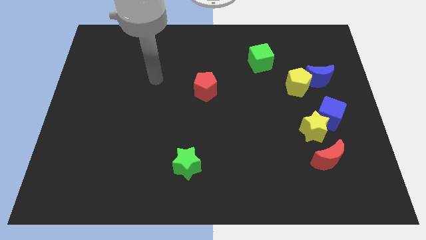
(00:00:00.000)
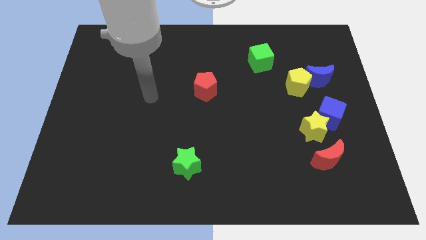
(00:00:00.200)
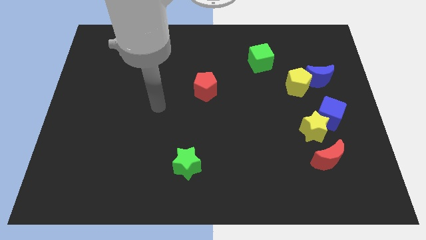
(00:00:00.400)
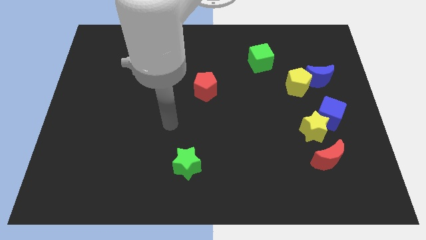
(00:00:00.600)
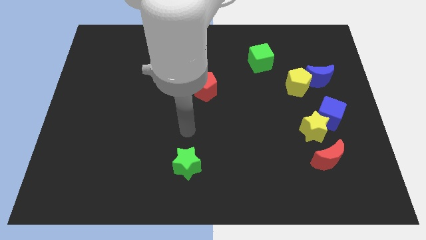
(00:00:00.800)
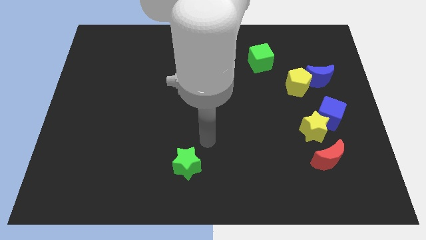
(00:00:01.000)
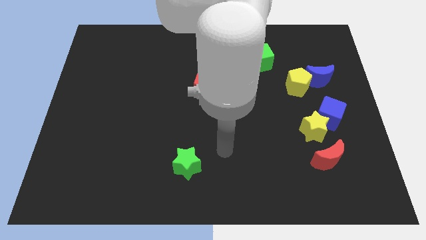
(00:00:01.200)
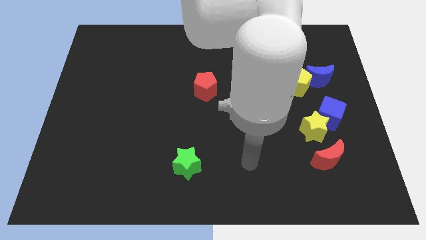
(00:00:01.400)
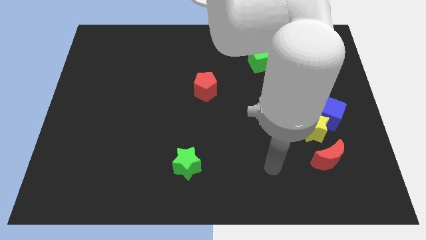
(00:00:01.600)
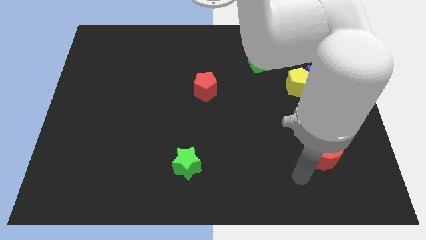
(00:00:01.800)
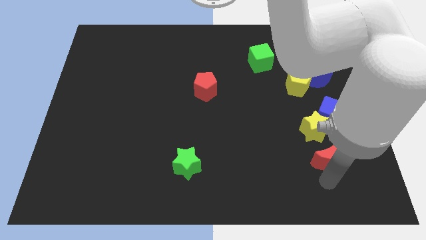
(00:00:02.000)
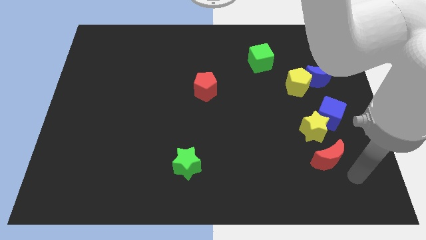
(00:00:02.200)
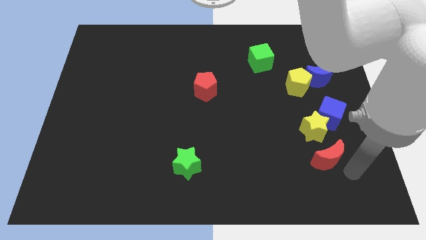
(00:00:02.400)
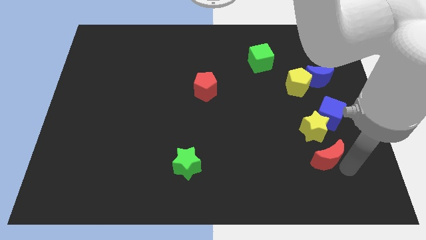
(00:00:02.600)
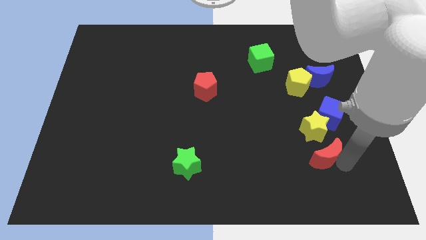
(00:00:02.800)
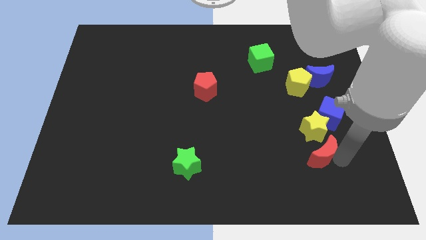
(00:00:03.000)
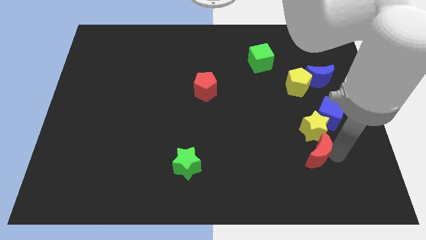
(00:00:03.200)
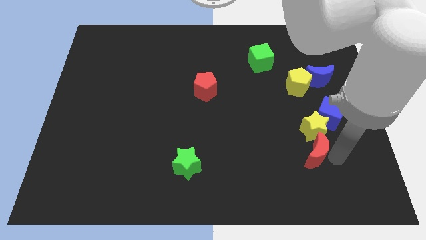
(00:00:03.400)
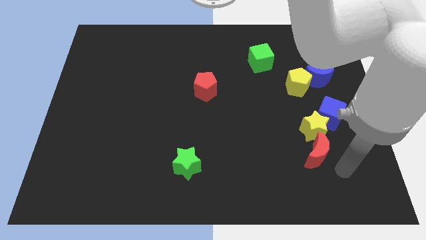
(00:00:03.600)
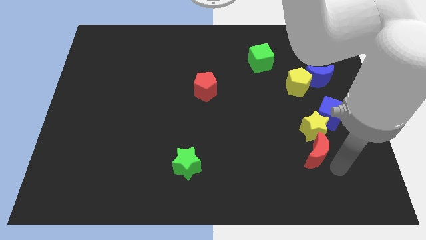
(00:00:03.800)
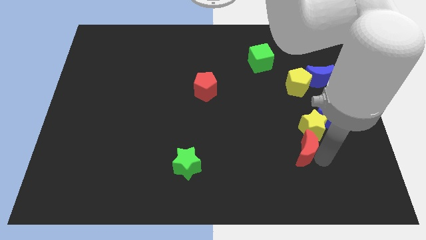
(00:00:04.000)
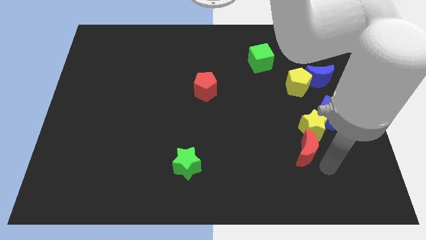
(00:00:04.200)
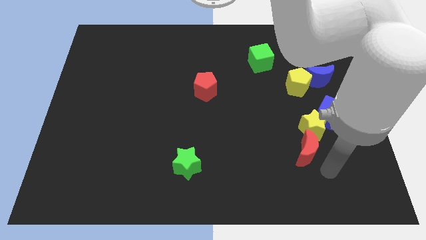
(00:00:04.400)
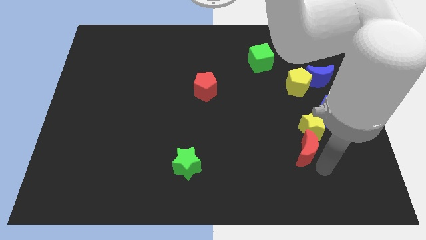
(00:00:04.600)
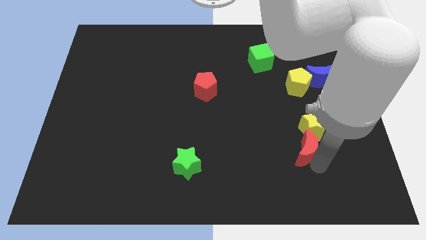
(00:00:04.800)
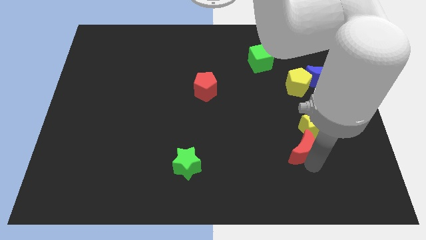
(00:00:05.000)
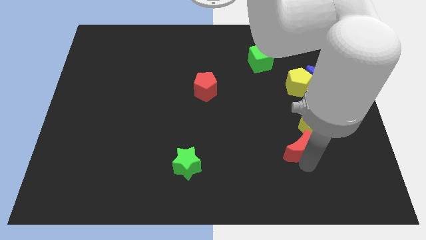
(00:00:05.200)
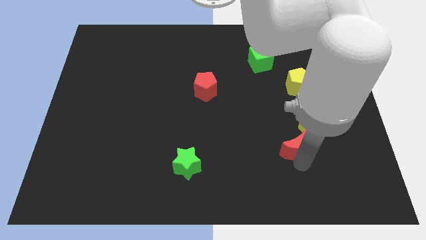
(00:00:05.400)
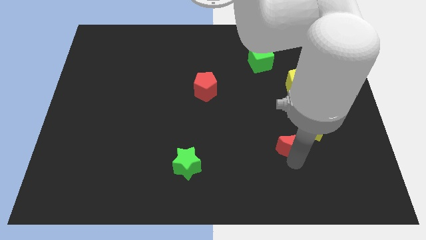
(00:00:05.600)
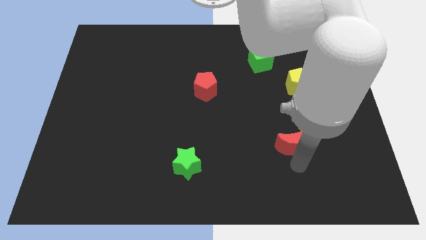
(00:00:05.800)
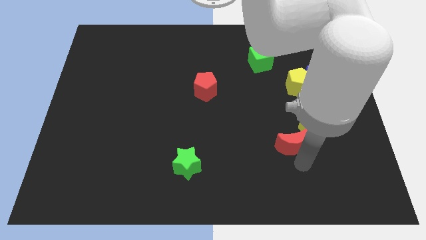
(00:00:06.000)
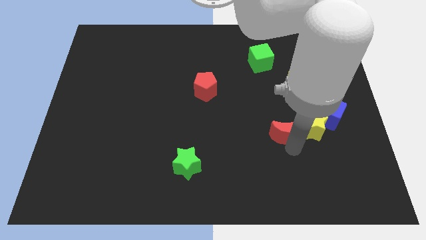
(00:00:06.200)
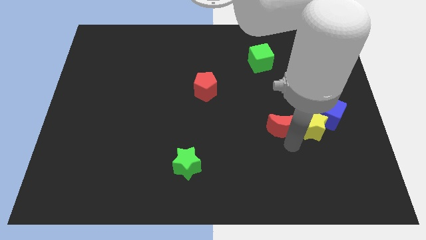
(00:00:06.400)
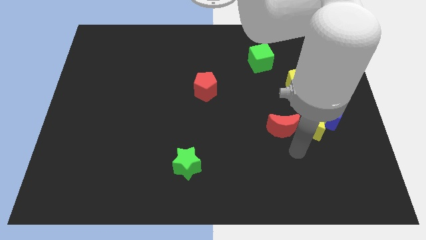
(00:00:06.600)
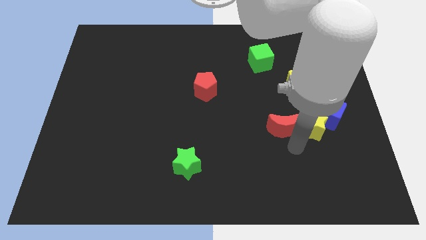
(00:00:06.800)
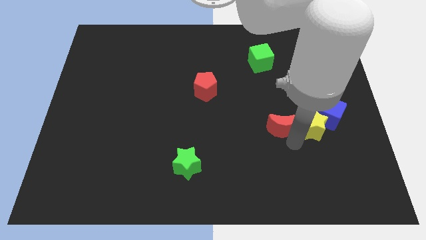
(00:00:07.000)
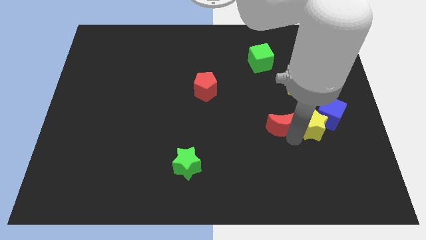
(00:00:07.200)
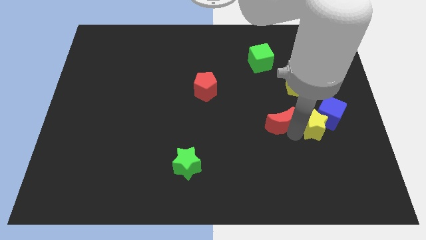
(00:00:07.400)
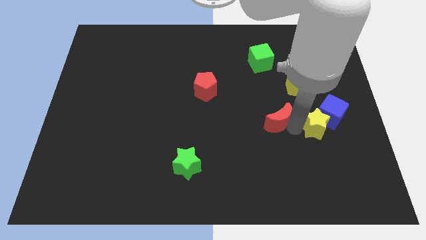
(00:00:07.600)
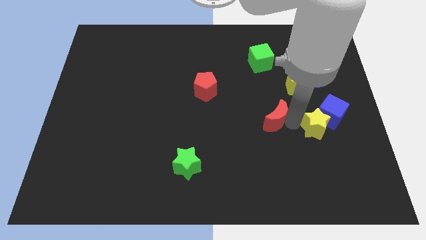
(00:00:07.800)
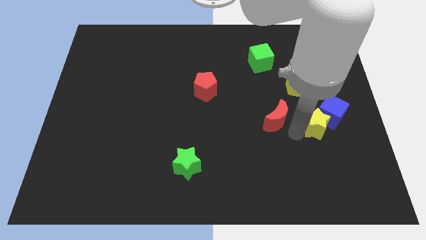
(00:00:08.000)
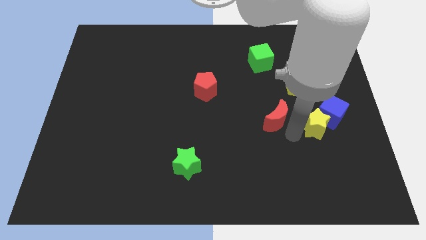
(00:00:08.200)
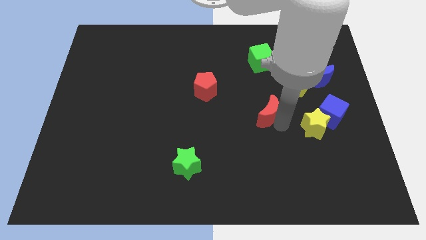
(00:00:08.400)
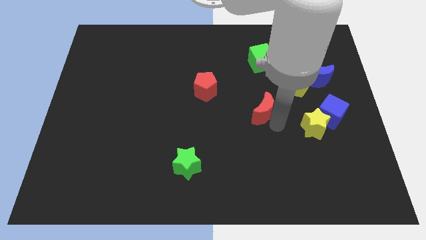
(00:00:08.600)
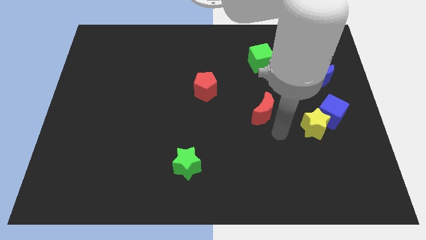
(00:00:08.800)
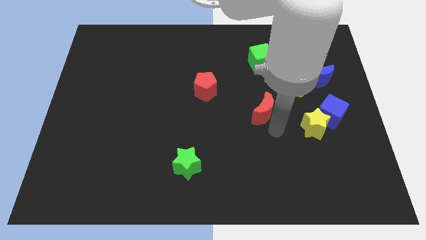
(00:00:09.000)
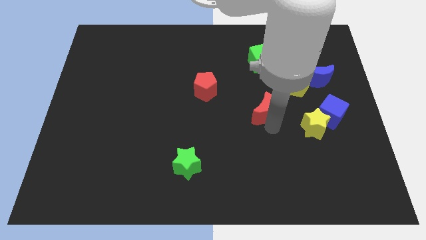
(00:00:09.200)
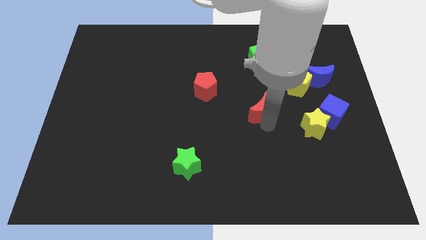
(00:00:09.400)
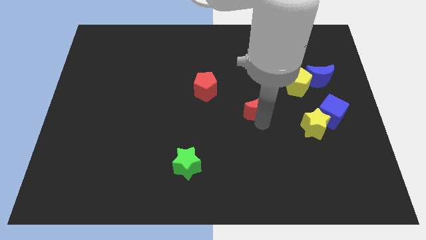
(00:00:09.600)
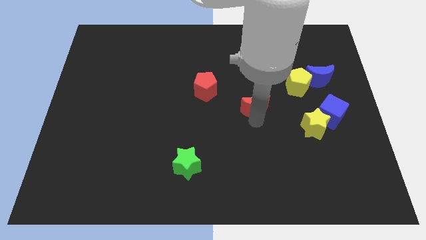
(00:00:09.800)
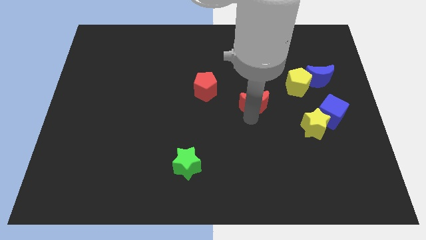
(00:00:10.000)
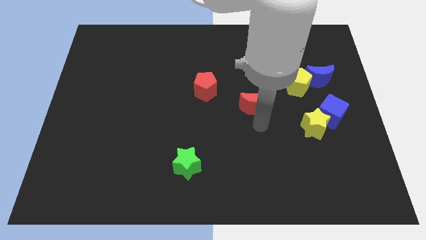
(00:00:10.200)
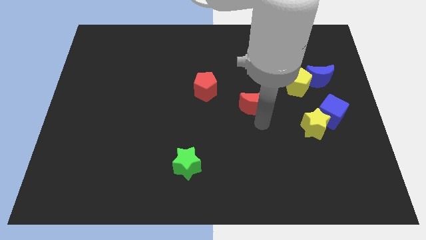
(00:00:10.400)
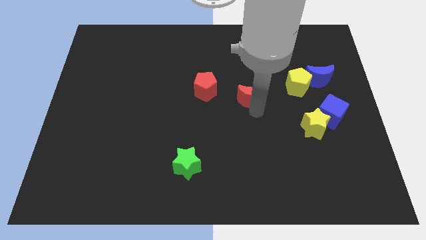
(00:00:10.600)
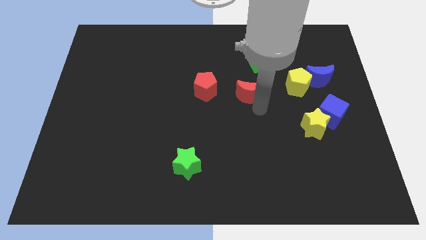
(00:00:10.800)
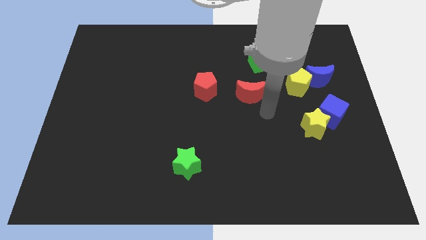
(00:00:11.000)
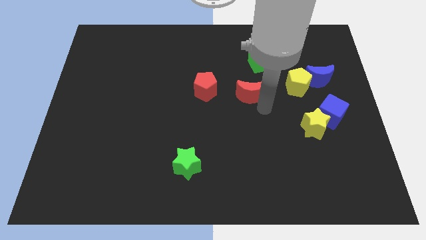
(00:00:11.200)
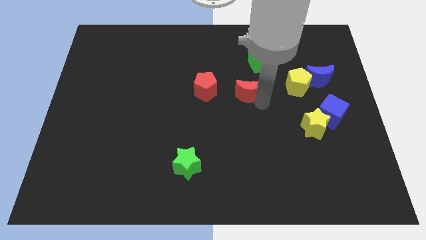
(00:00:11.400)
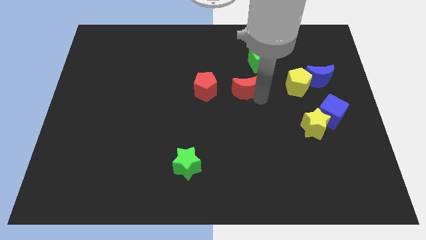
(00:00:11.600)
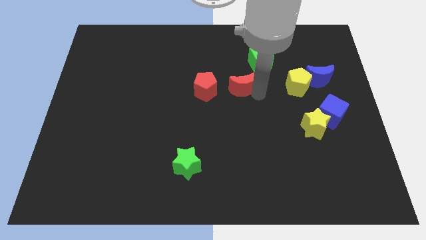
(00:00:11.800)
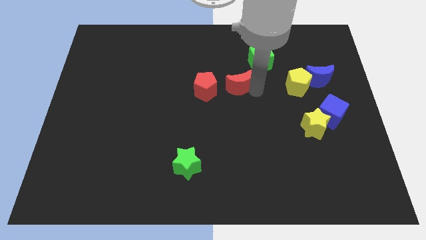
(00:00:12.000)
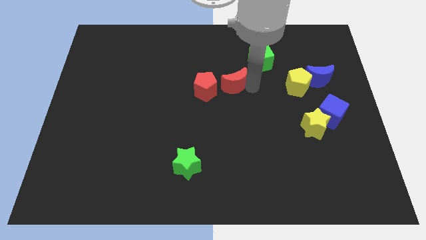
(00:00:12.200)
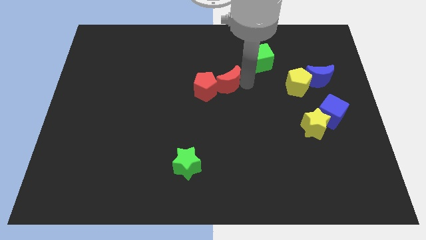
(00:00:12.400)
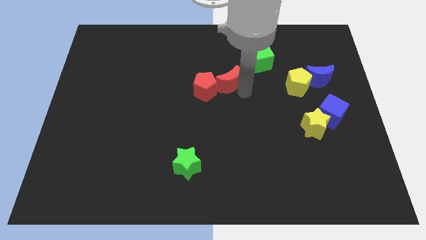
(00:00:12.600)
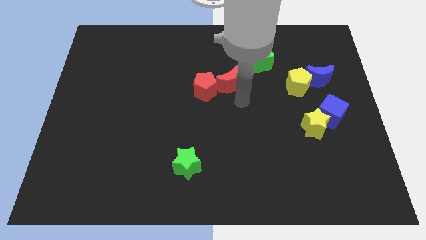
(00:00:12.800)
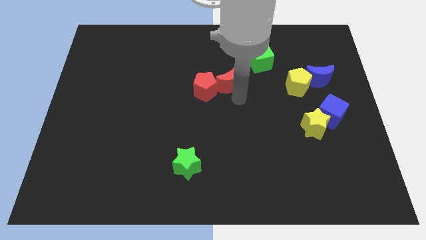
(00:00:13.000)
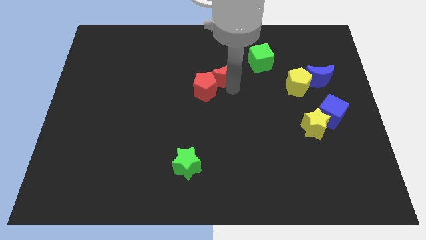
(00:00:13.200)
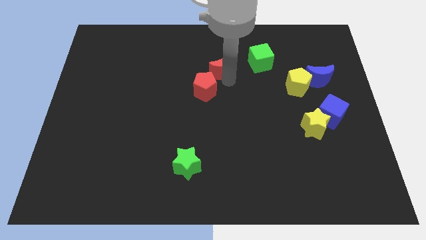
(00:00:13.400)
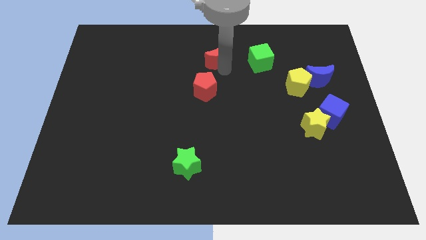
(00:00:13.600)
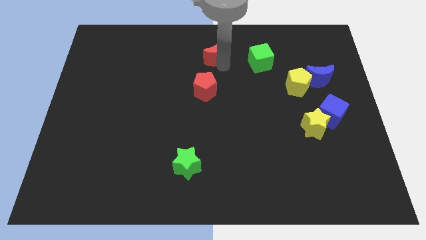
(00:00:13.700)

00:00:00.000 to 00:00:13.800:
put the red moon to the top

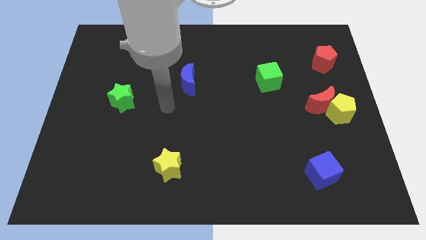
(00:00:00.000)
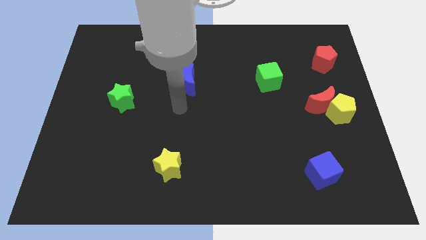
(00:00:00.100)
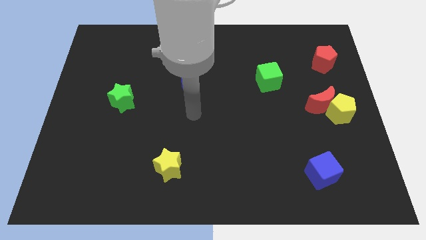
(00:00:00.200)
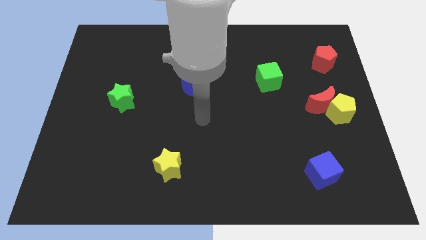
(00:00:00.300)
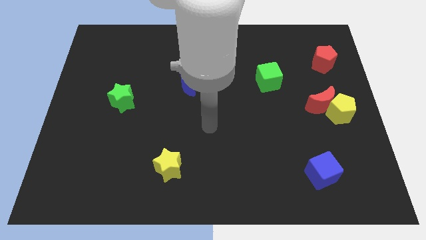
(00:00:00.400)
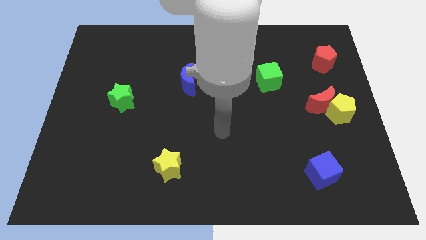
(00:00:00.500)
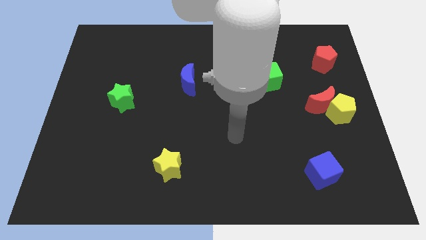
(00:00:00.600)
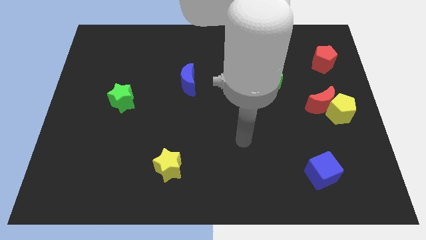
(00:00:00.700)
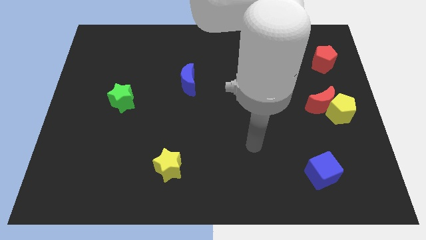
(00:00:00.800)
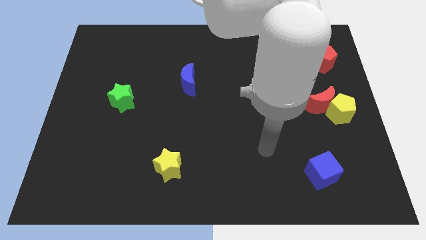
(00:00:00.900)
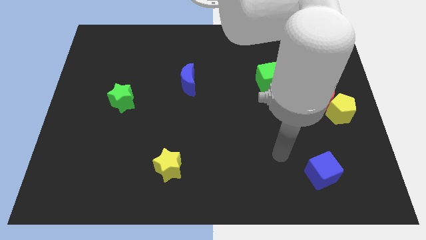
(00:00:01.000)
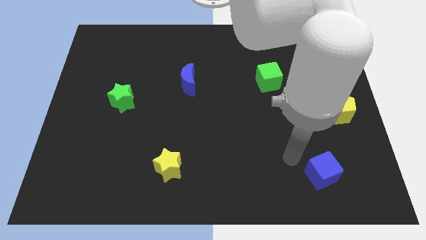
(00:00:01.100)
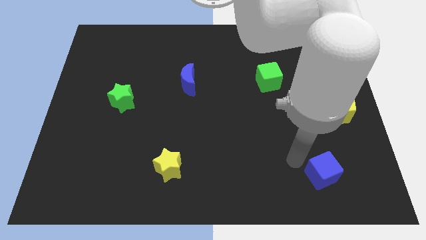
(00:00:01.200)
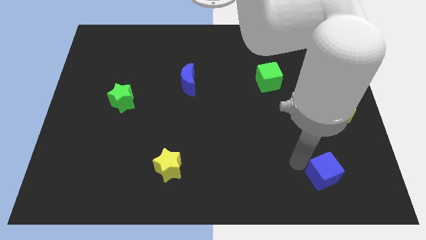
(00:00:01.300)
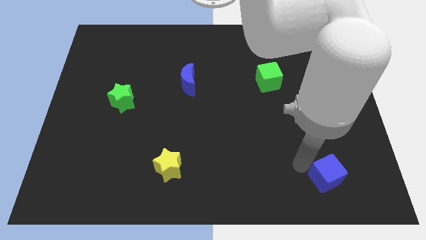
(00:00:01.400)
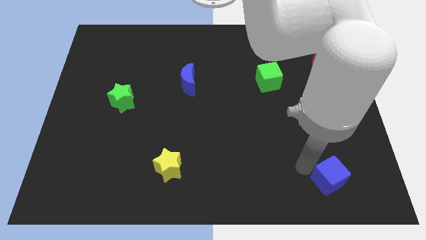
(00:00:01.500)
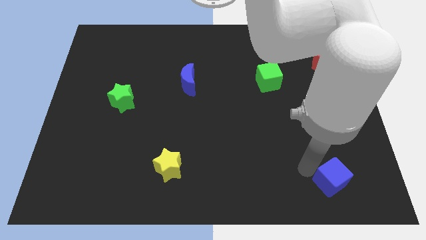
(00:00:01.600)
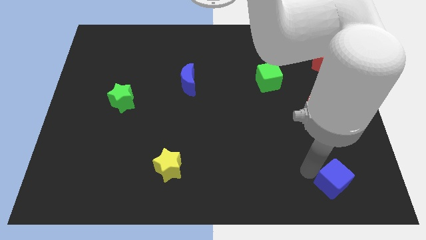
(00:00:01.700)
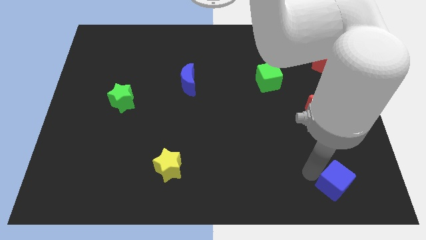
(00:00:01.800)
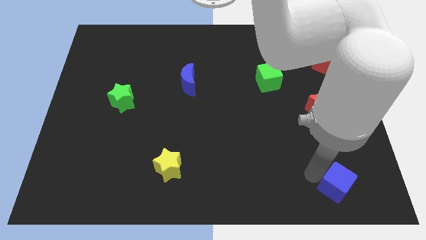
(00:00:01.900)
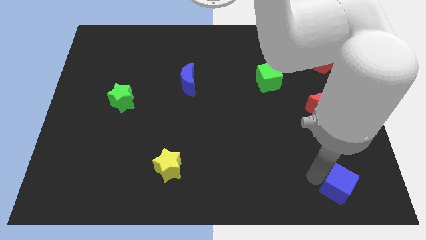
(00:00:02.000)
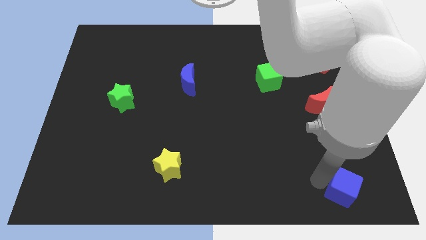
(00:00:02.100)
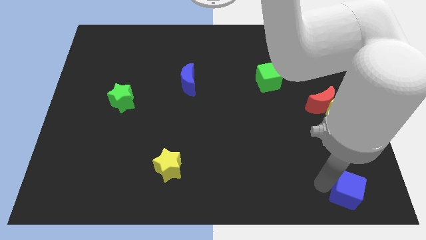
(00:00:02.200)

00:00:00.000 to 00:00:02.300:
move the blue cube to the bottom right of the board
